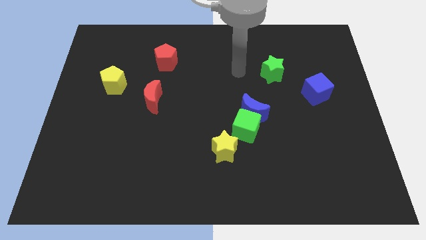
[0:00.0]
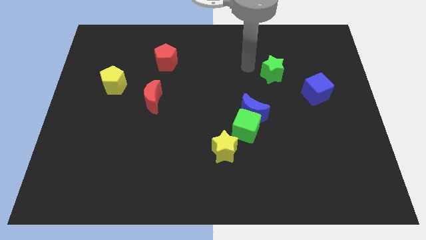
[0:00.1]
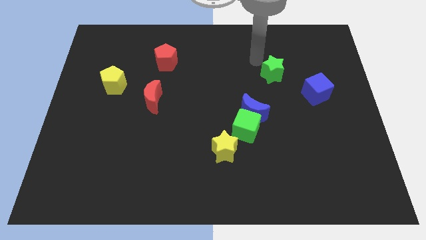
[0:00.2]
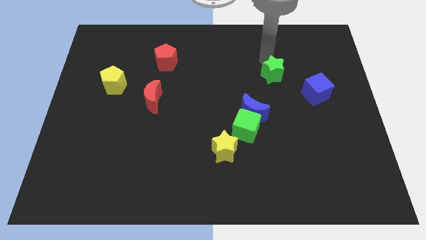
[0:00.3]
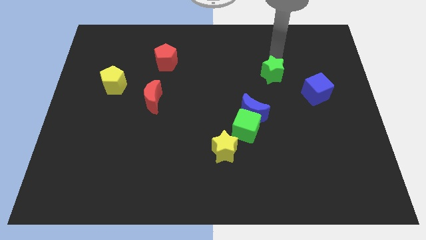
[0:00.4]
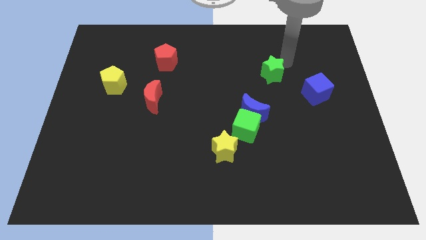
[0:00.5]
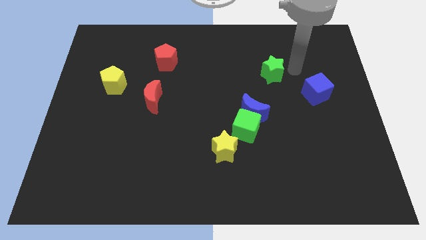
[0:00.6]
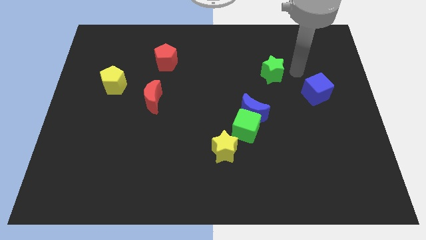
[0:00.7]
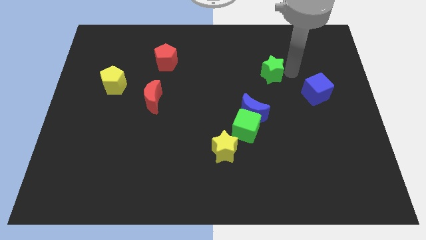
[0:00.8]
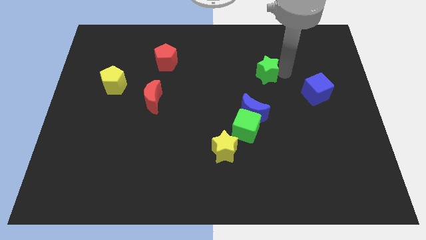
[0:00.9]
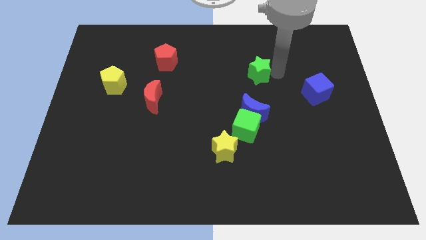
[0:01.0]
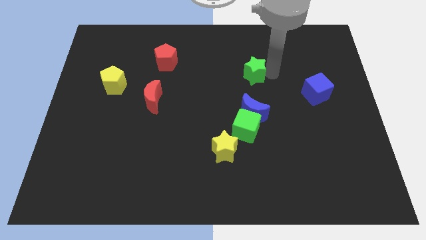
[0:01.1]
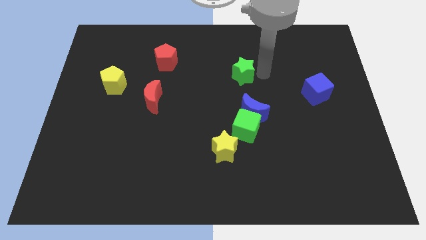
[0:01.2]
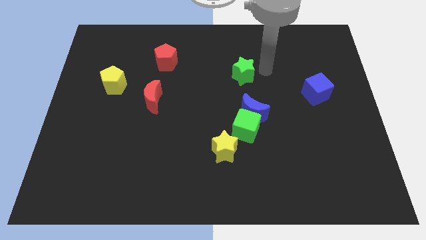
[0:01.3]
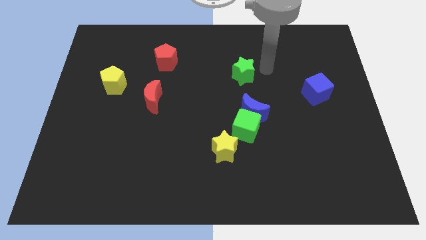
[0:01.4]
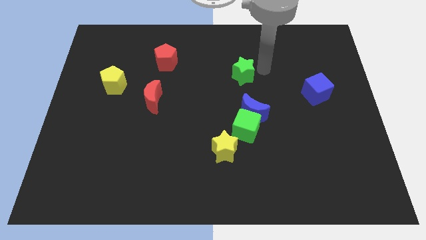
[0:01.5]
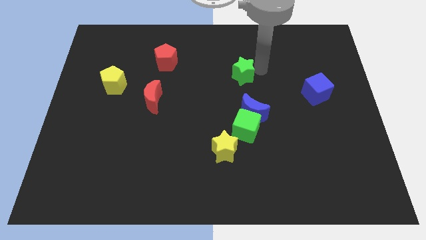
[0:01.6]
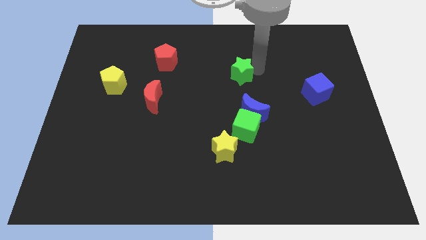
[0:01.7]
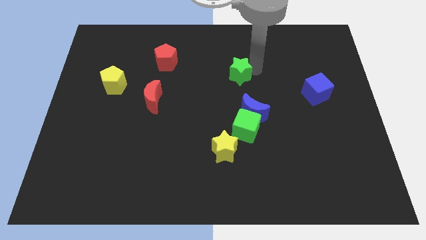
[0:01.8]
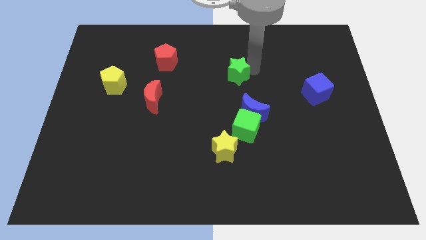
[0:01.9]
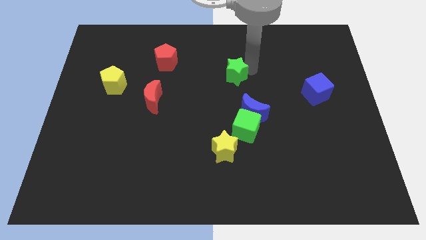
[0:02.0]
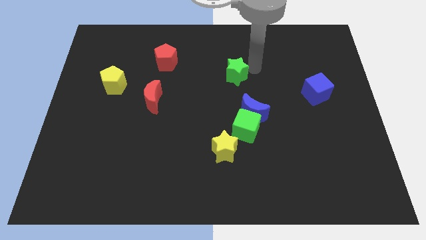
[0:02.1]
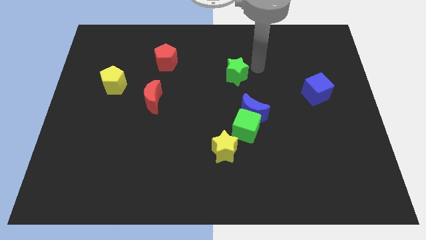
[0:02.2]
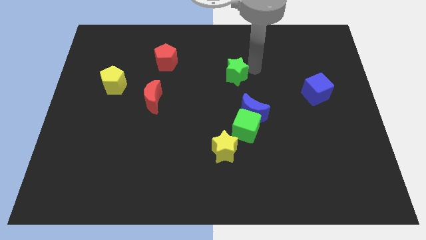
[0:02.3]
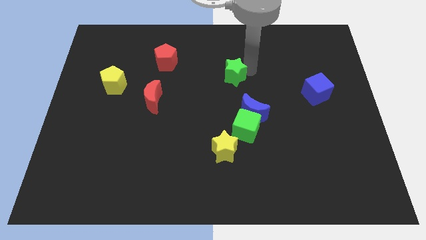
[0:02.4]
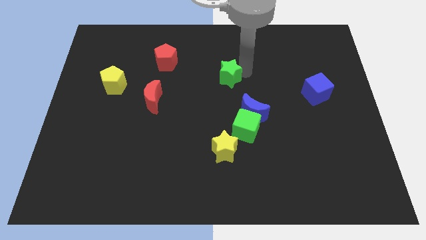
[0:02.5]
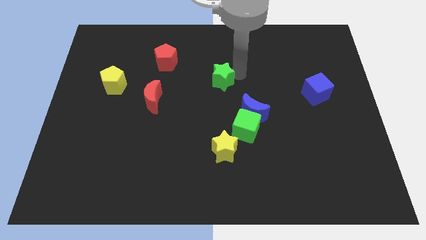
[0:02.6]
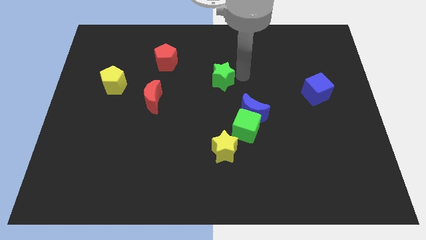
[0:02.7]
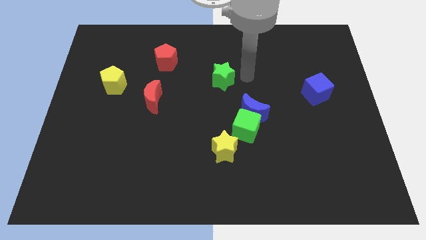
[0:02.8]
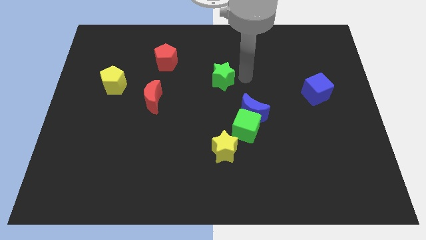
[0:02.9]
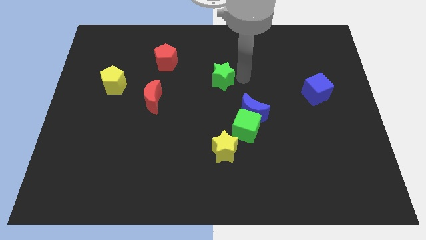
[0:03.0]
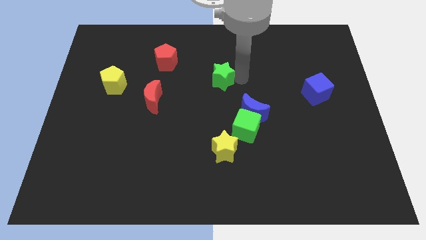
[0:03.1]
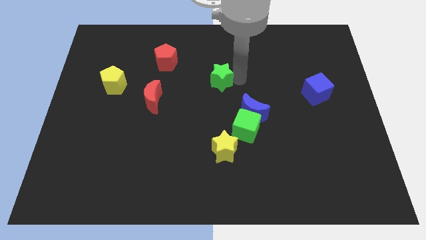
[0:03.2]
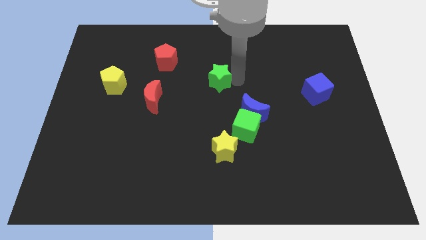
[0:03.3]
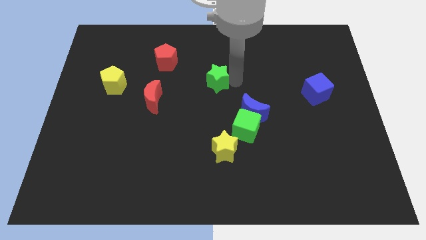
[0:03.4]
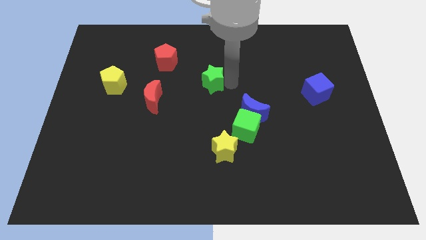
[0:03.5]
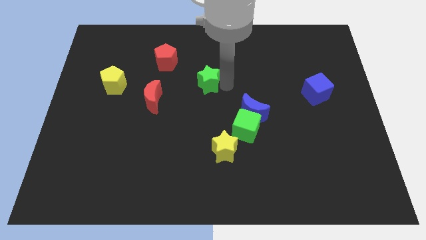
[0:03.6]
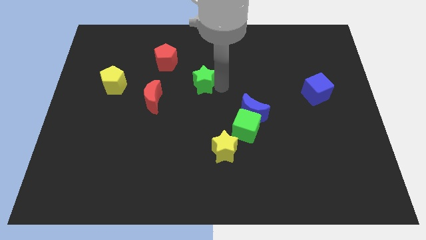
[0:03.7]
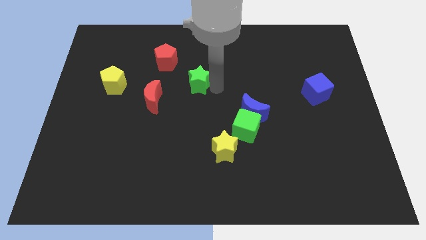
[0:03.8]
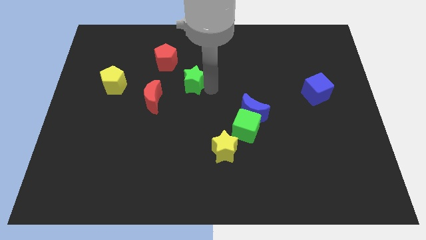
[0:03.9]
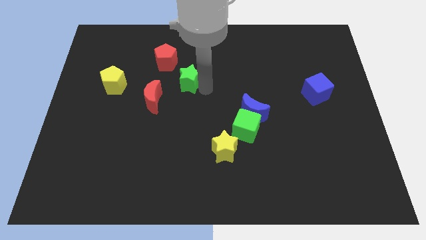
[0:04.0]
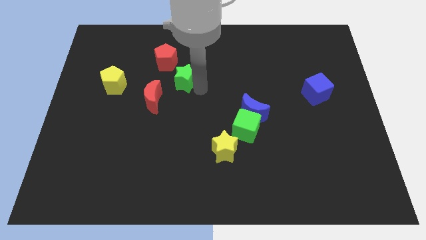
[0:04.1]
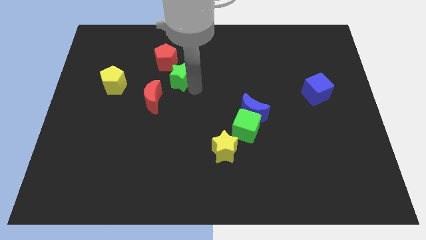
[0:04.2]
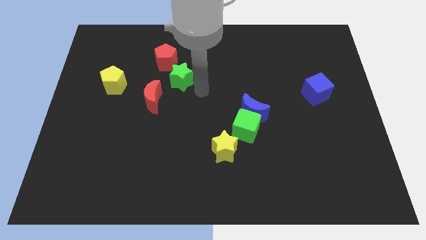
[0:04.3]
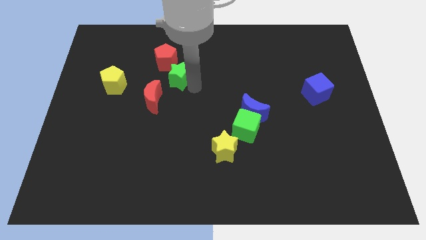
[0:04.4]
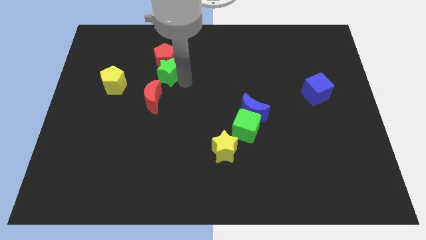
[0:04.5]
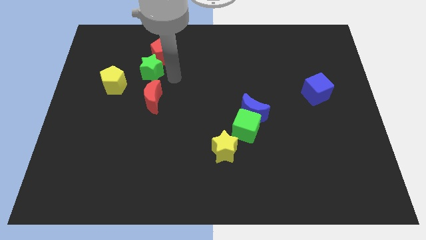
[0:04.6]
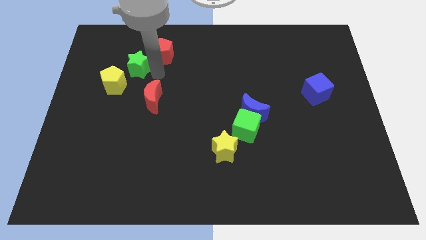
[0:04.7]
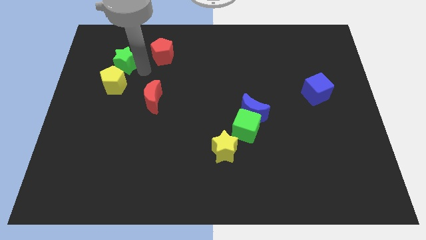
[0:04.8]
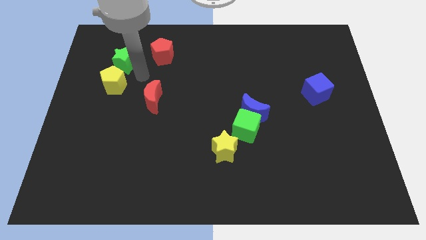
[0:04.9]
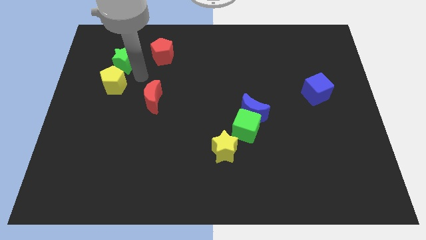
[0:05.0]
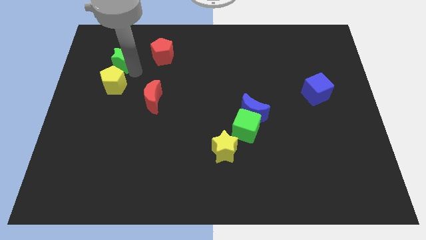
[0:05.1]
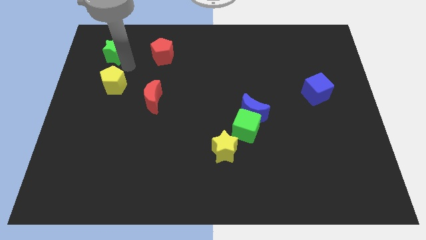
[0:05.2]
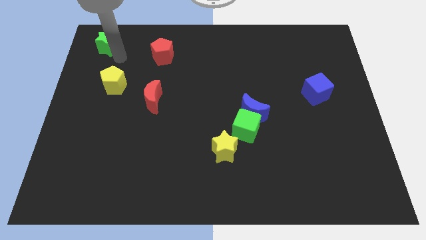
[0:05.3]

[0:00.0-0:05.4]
push the green star to the top left of the board

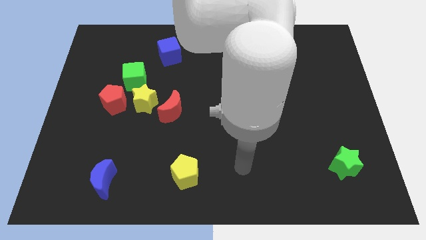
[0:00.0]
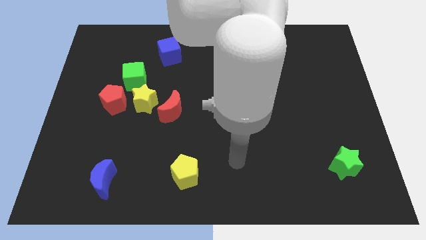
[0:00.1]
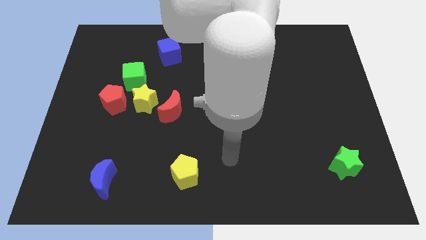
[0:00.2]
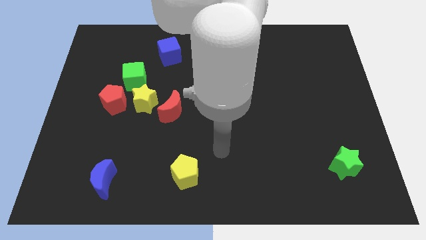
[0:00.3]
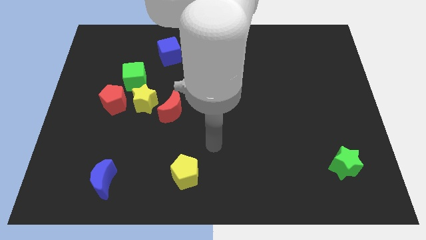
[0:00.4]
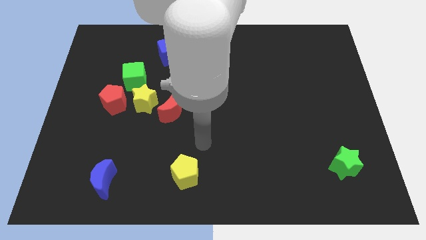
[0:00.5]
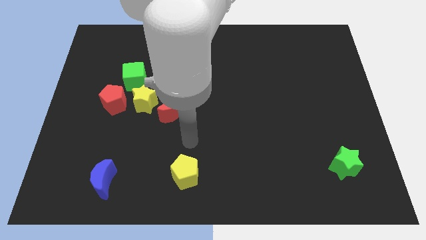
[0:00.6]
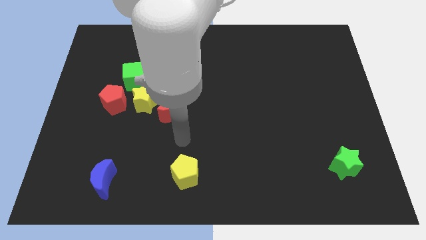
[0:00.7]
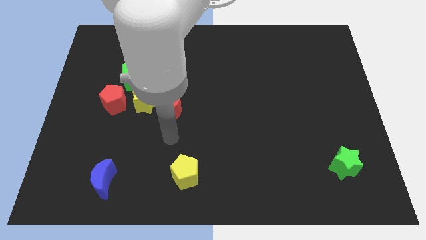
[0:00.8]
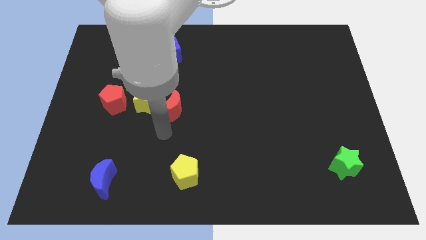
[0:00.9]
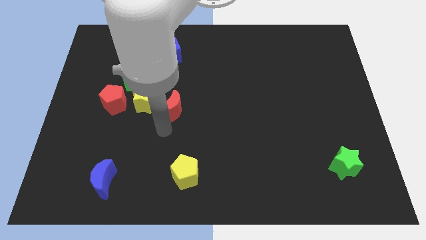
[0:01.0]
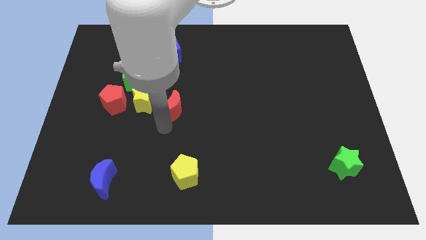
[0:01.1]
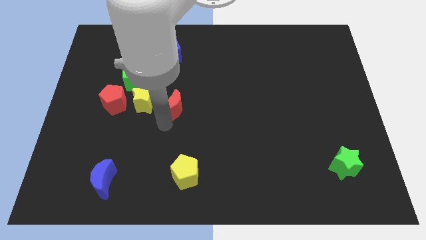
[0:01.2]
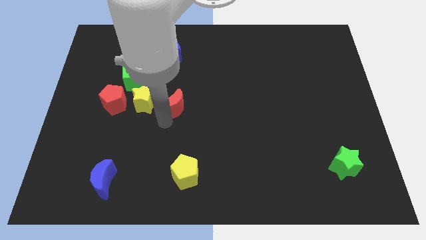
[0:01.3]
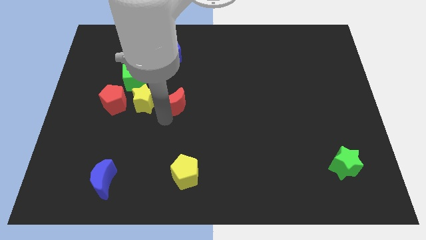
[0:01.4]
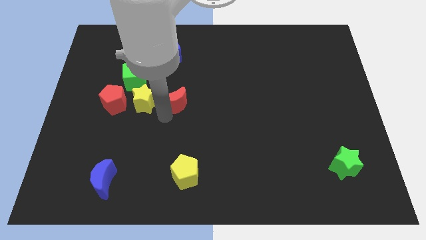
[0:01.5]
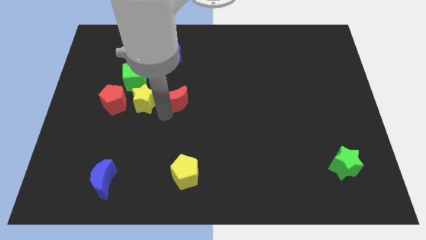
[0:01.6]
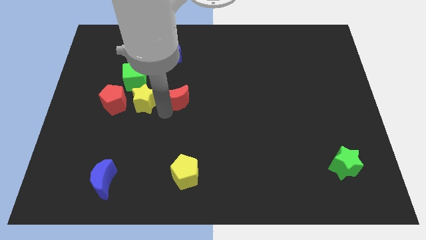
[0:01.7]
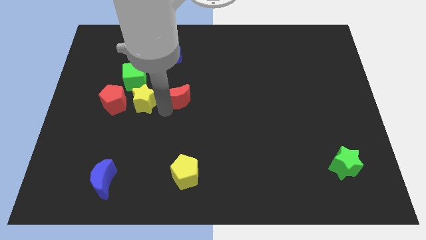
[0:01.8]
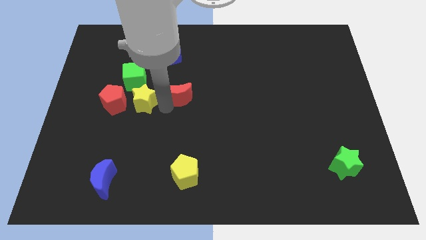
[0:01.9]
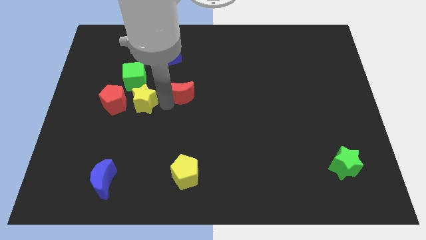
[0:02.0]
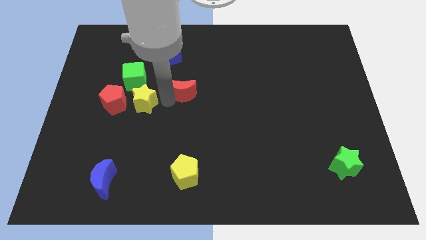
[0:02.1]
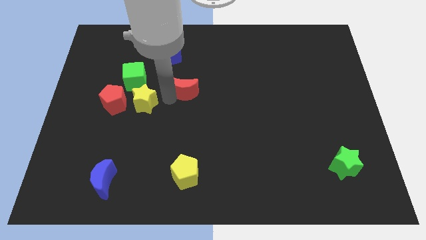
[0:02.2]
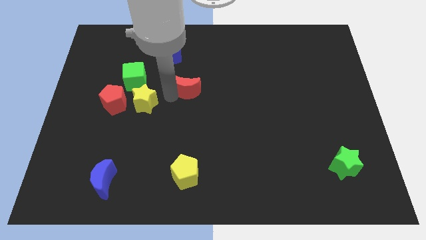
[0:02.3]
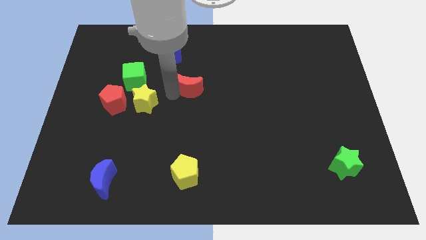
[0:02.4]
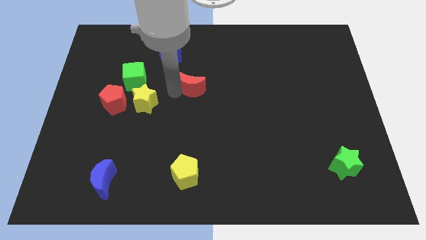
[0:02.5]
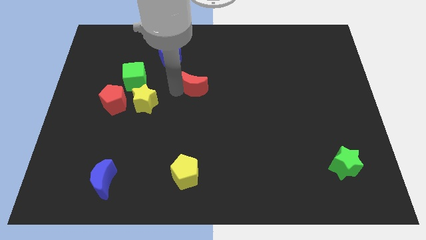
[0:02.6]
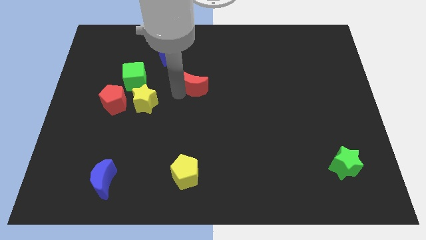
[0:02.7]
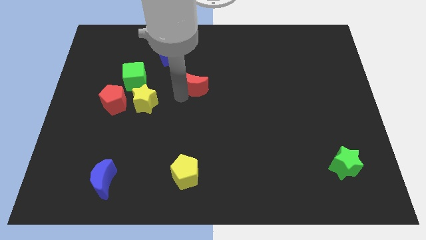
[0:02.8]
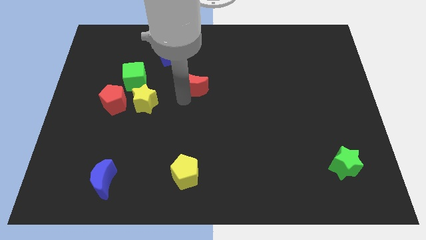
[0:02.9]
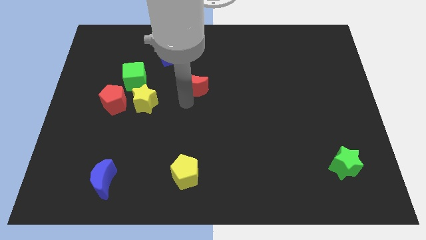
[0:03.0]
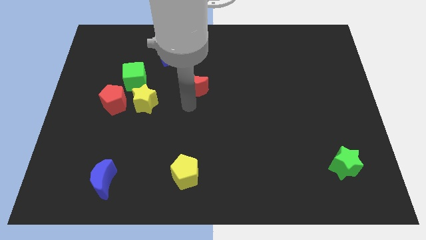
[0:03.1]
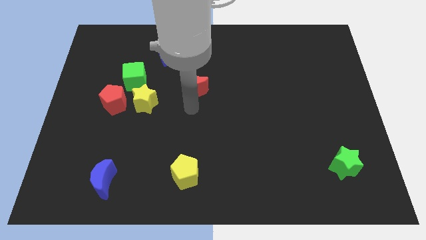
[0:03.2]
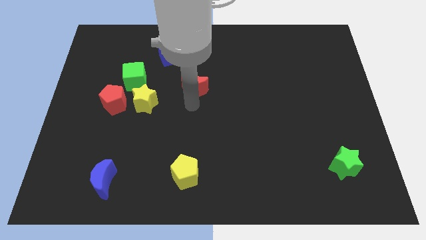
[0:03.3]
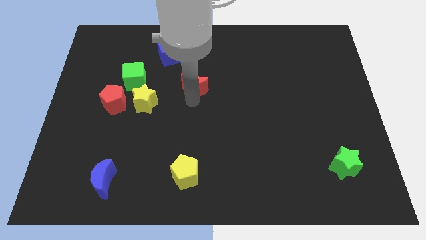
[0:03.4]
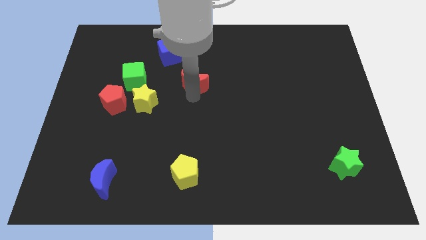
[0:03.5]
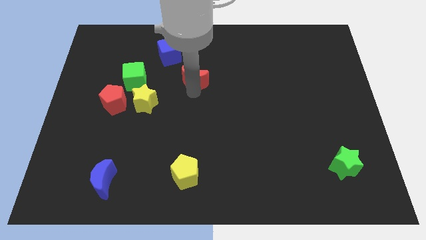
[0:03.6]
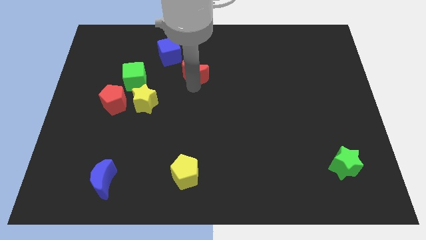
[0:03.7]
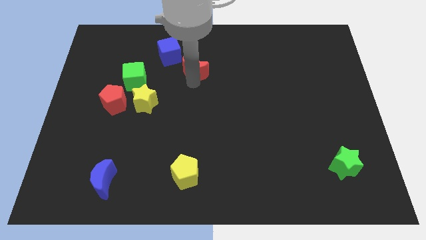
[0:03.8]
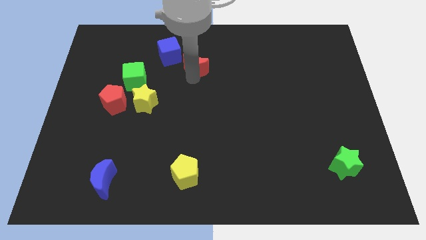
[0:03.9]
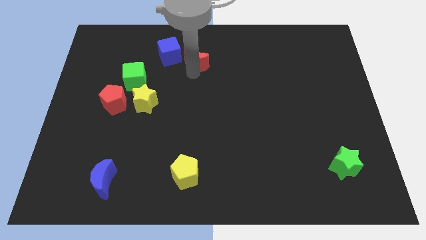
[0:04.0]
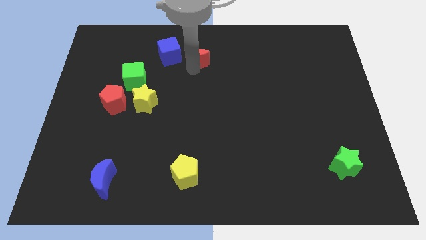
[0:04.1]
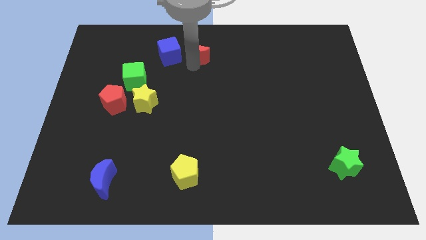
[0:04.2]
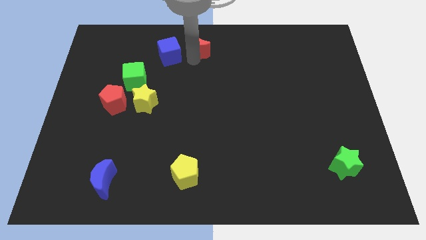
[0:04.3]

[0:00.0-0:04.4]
slide the red moon to the towards your base
